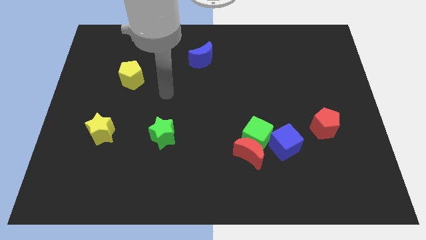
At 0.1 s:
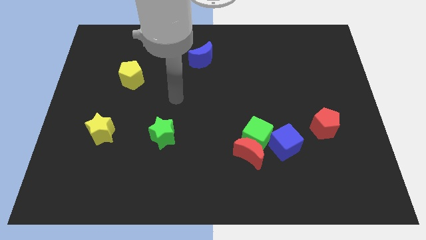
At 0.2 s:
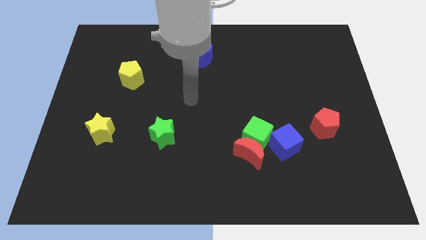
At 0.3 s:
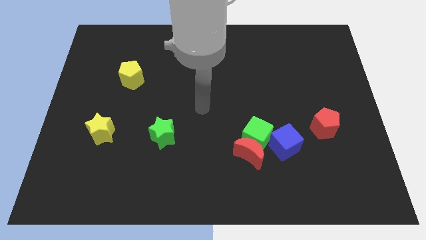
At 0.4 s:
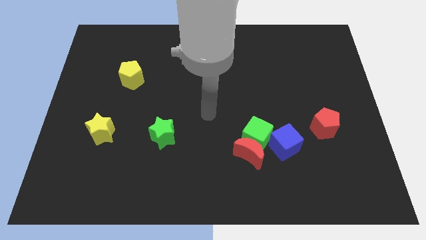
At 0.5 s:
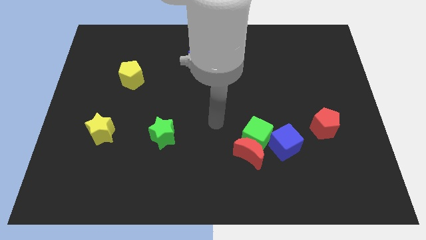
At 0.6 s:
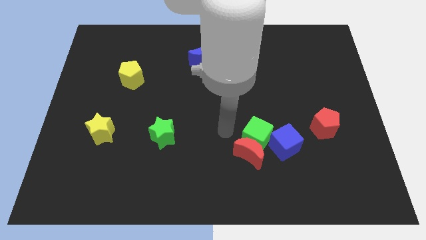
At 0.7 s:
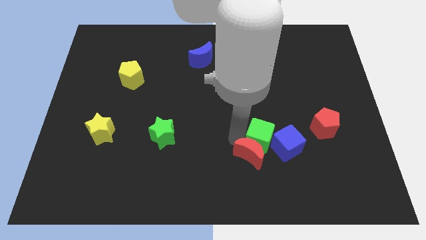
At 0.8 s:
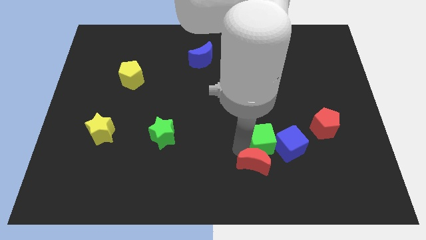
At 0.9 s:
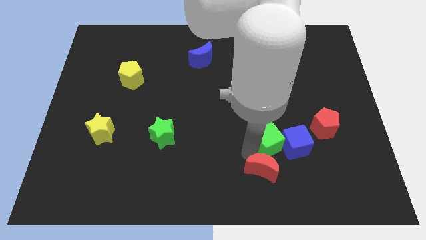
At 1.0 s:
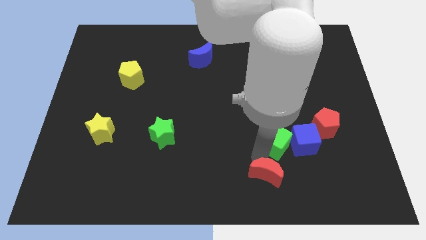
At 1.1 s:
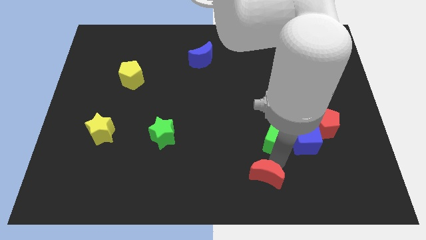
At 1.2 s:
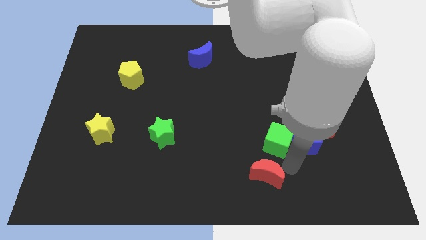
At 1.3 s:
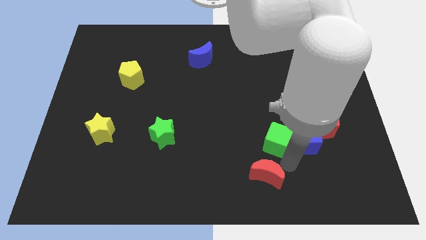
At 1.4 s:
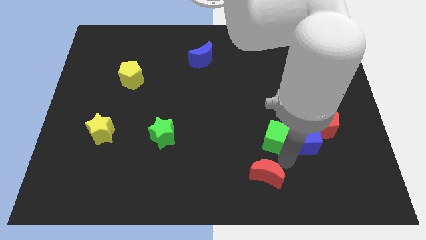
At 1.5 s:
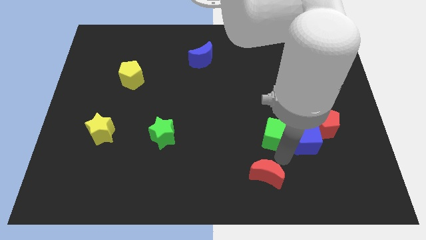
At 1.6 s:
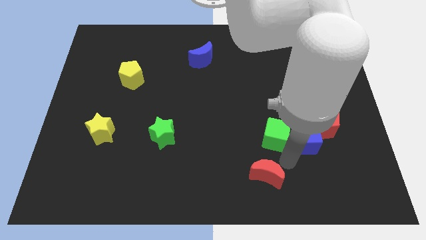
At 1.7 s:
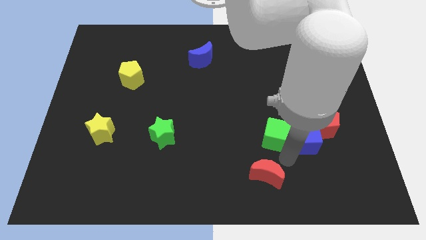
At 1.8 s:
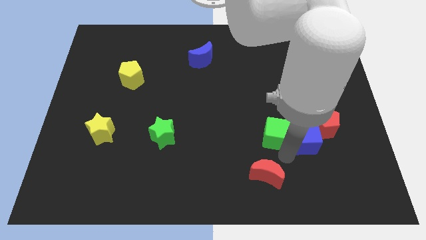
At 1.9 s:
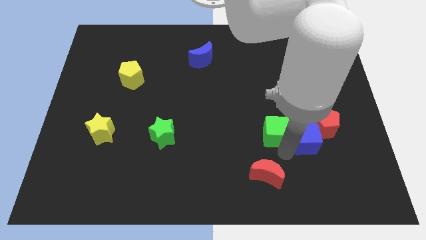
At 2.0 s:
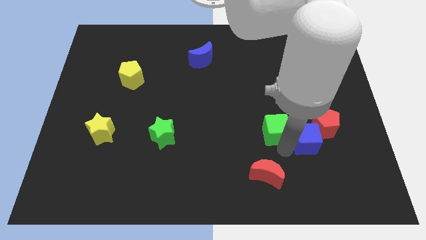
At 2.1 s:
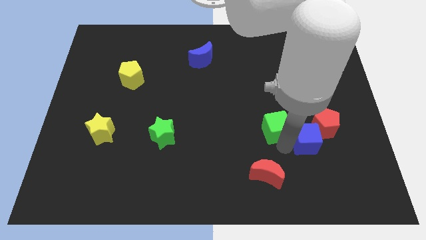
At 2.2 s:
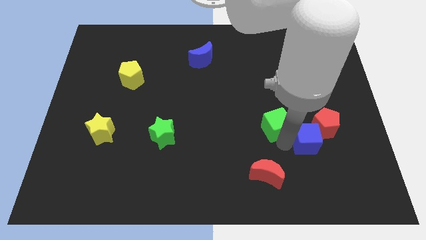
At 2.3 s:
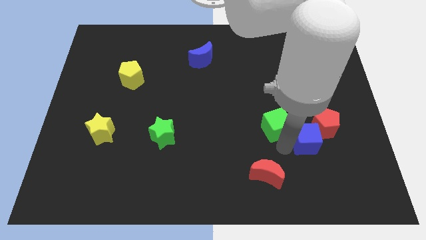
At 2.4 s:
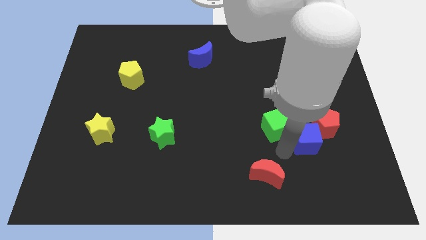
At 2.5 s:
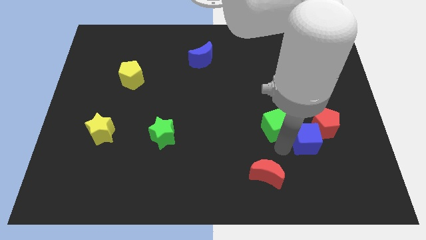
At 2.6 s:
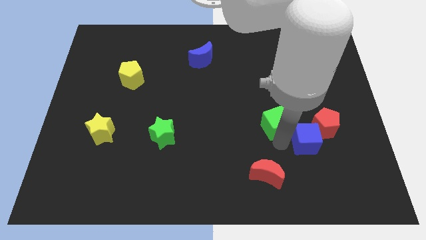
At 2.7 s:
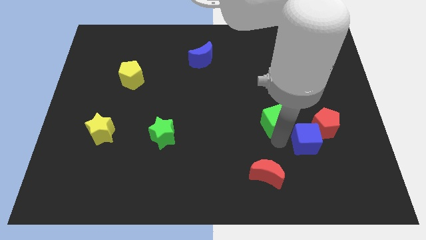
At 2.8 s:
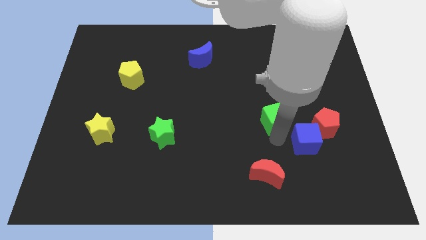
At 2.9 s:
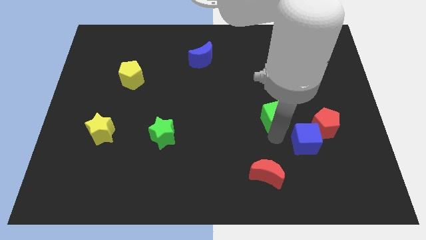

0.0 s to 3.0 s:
pull the green cube apart from the red moon and blue cube

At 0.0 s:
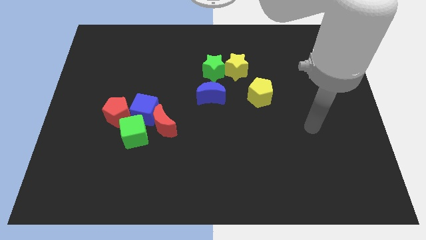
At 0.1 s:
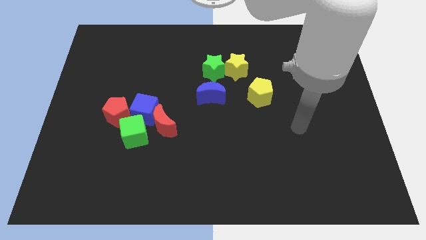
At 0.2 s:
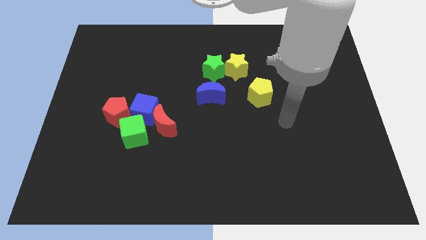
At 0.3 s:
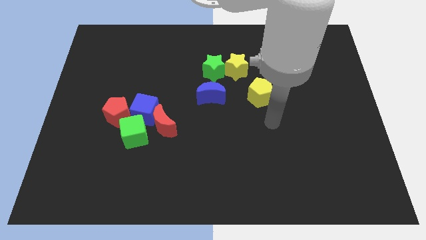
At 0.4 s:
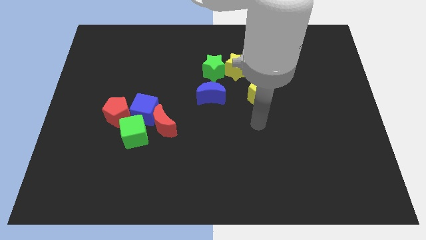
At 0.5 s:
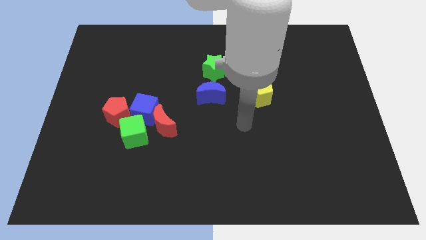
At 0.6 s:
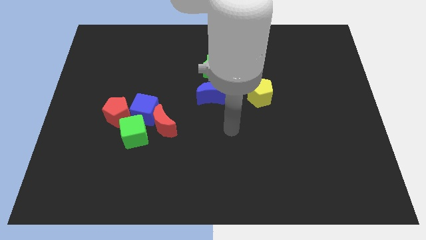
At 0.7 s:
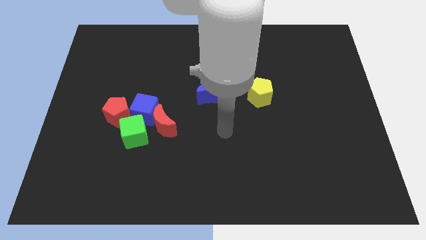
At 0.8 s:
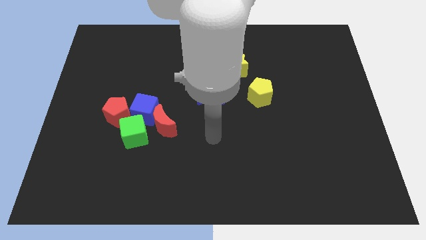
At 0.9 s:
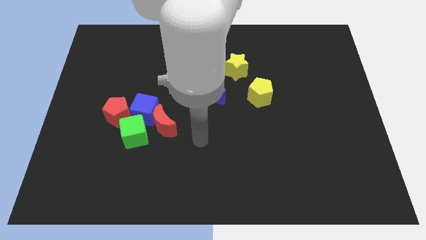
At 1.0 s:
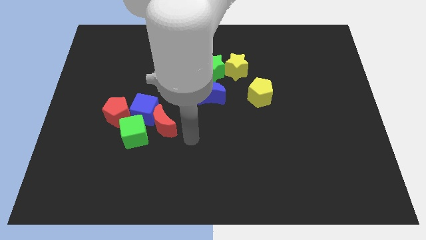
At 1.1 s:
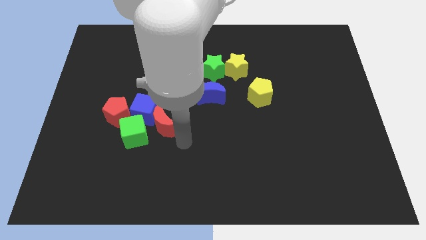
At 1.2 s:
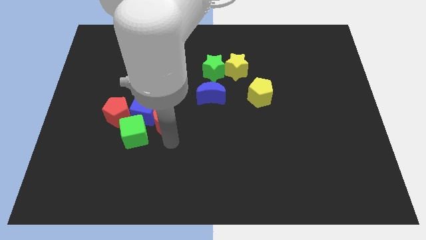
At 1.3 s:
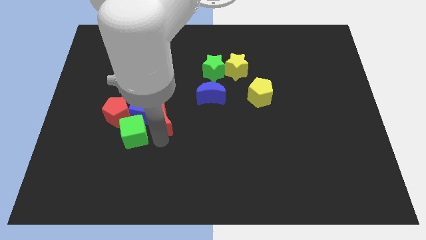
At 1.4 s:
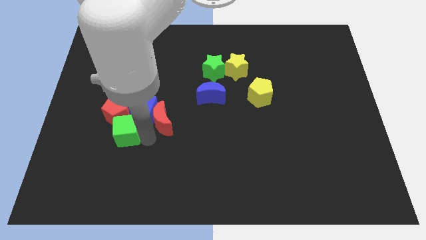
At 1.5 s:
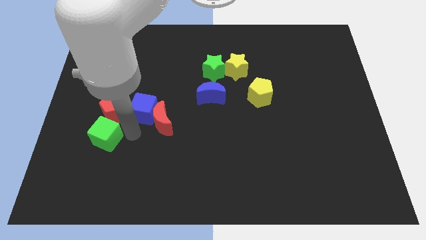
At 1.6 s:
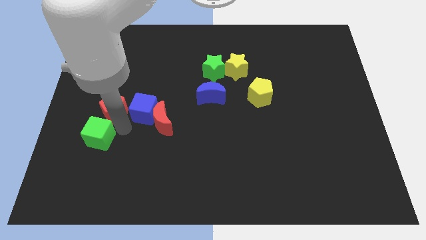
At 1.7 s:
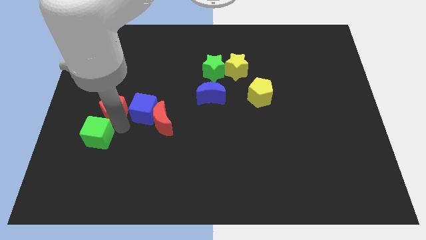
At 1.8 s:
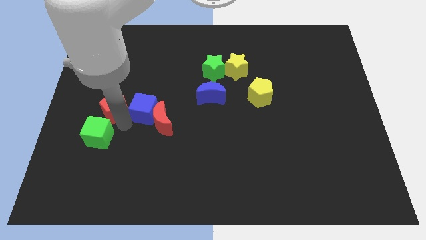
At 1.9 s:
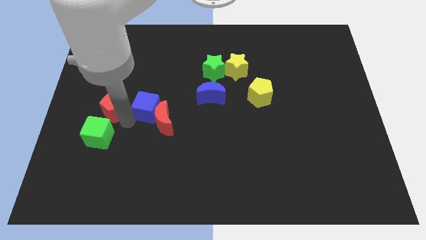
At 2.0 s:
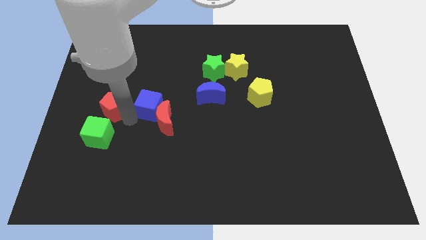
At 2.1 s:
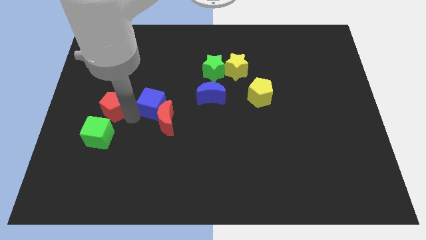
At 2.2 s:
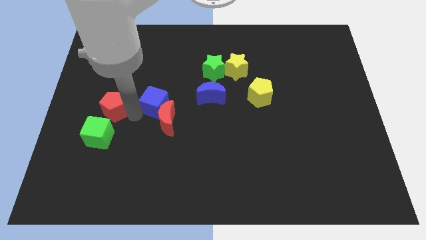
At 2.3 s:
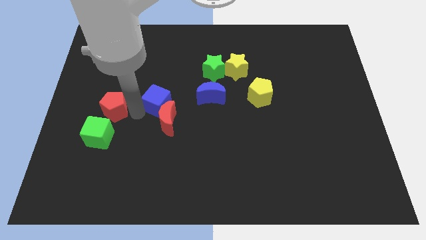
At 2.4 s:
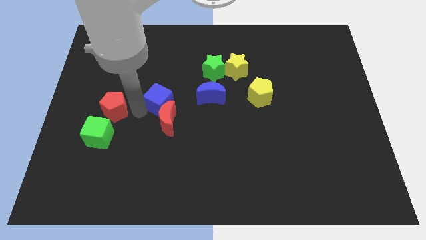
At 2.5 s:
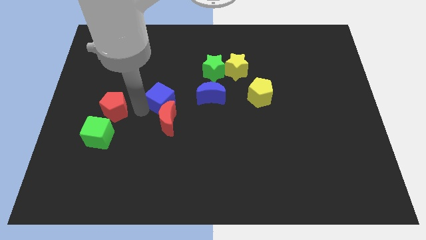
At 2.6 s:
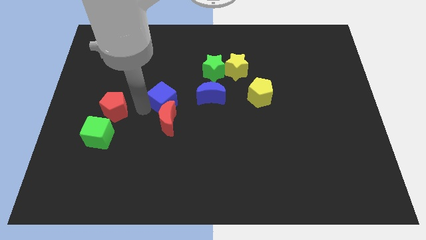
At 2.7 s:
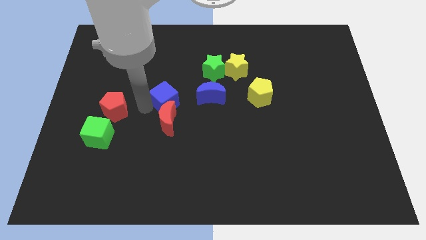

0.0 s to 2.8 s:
move the blue cube away from the group of blocks

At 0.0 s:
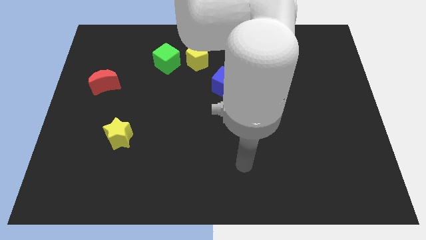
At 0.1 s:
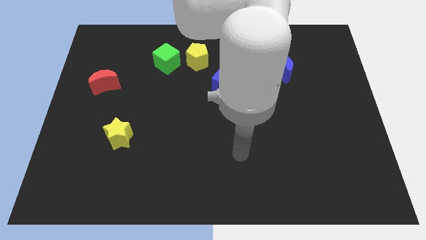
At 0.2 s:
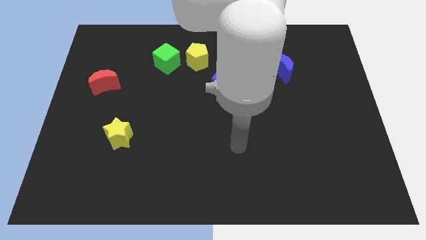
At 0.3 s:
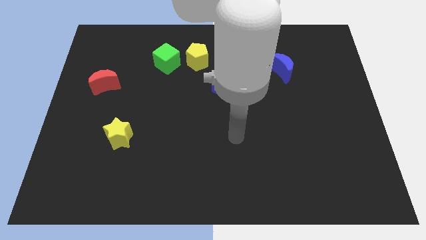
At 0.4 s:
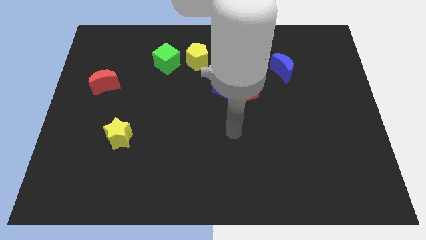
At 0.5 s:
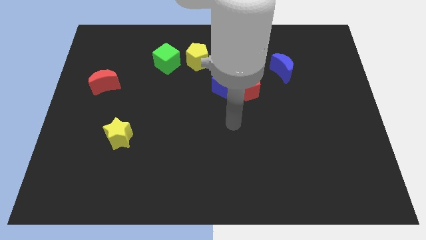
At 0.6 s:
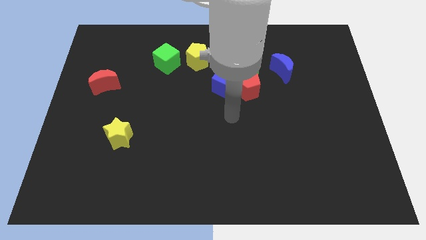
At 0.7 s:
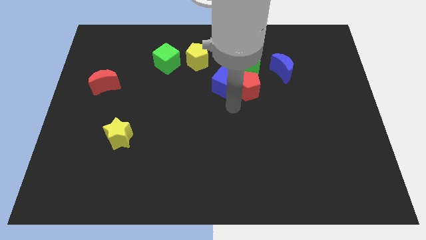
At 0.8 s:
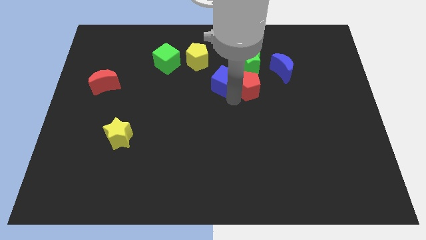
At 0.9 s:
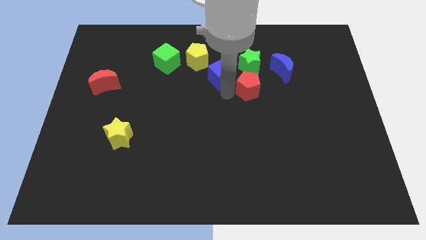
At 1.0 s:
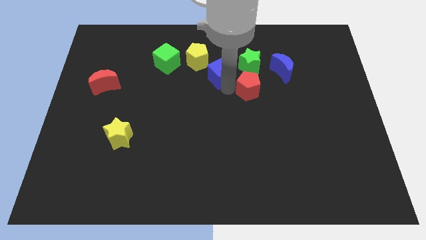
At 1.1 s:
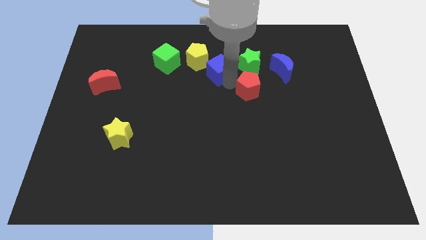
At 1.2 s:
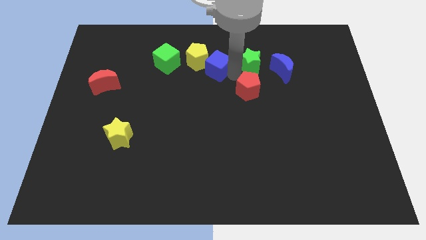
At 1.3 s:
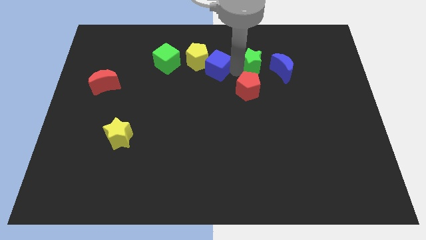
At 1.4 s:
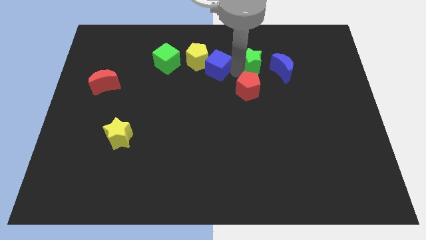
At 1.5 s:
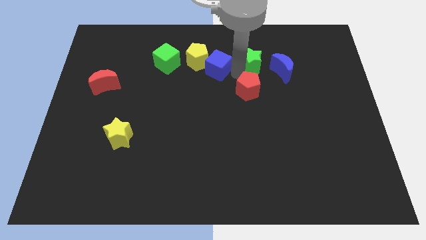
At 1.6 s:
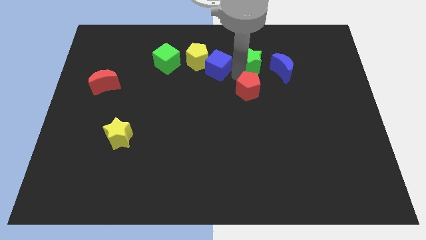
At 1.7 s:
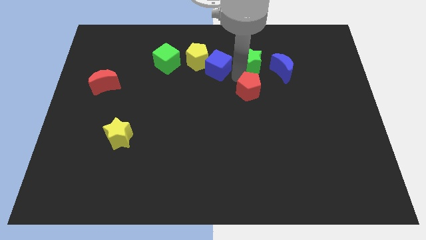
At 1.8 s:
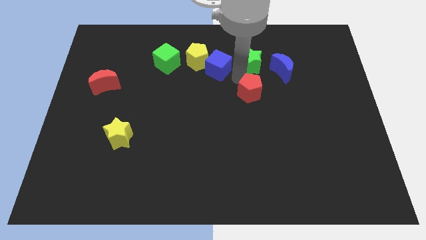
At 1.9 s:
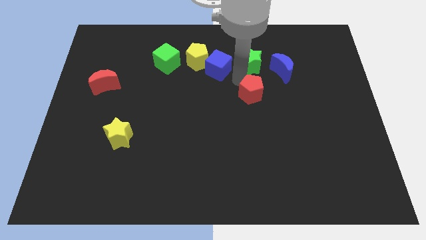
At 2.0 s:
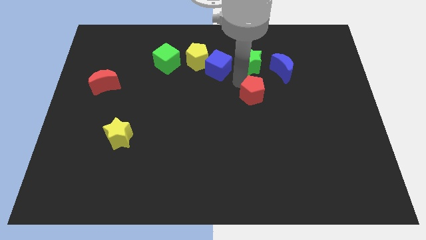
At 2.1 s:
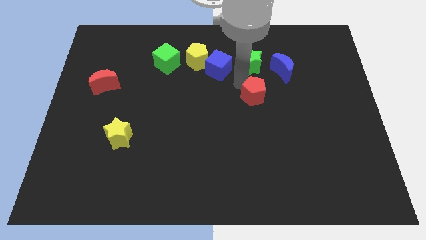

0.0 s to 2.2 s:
pull the red pentagon apart from the blue cube and green star

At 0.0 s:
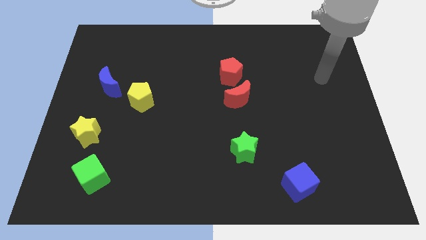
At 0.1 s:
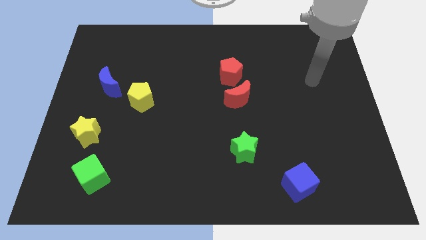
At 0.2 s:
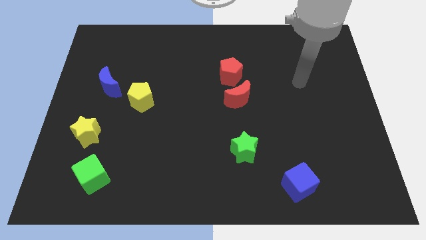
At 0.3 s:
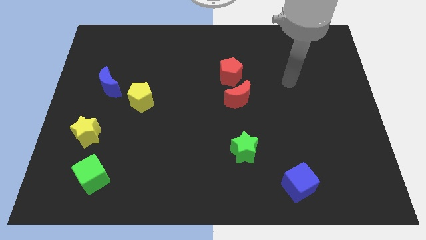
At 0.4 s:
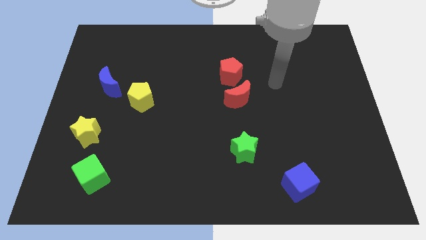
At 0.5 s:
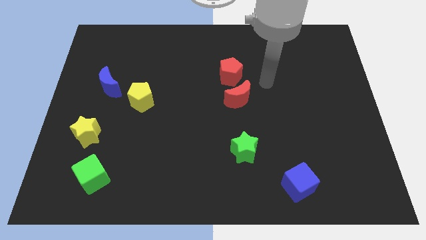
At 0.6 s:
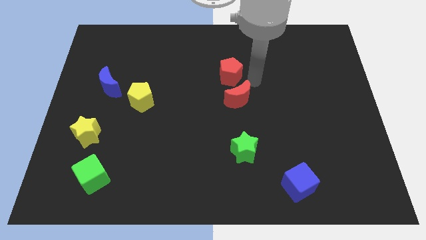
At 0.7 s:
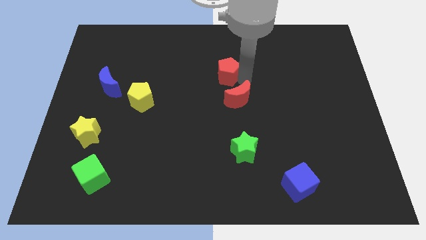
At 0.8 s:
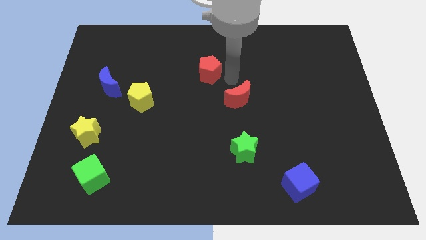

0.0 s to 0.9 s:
move the red moon away from the red pentagon

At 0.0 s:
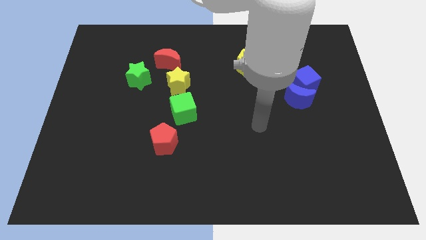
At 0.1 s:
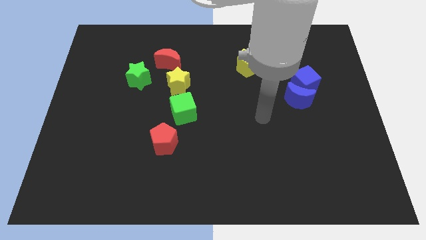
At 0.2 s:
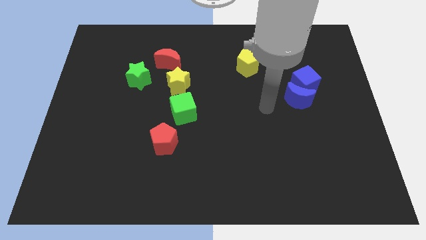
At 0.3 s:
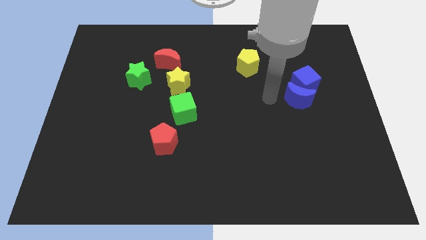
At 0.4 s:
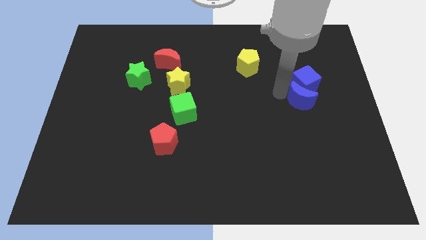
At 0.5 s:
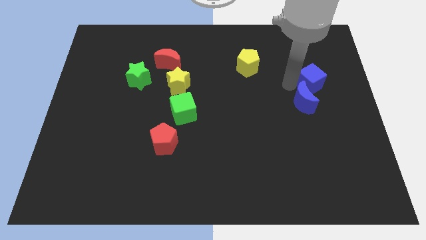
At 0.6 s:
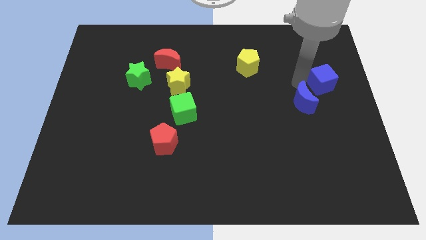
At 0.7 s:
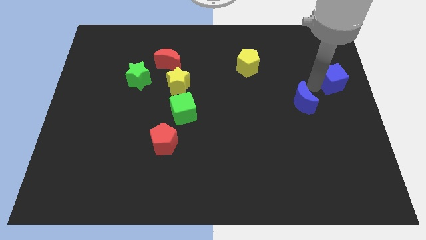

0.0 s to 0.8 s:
separate the blue moon from the blue cube
